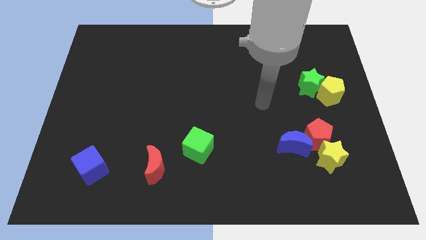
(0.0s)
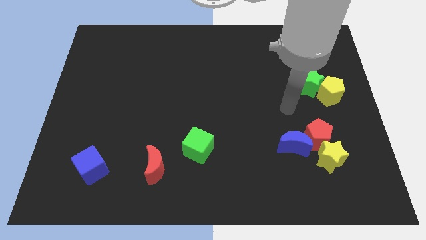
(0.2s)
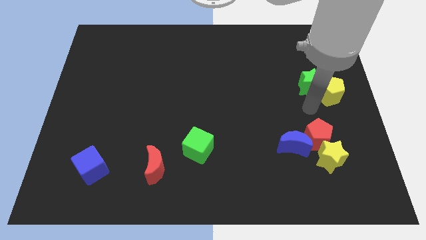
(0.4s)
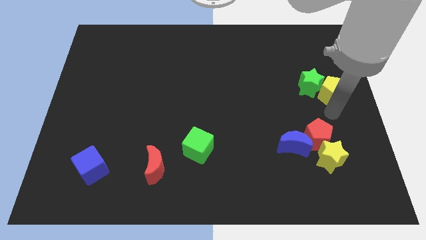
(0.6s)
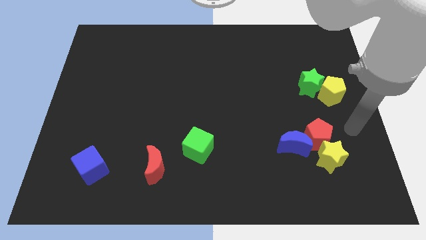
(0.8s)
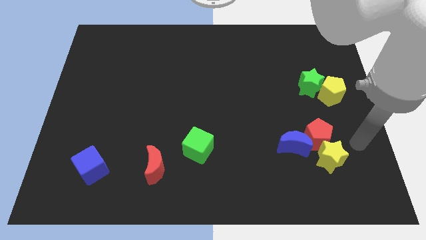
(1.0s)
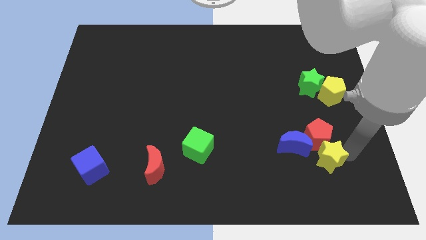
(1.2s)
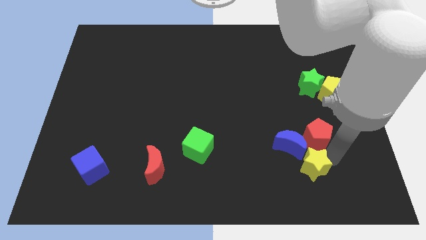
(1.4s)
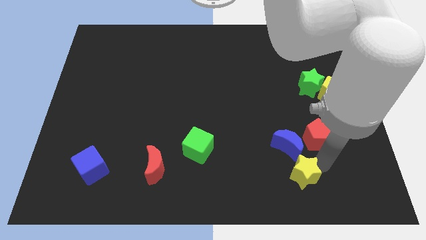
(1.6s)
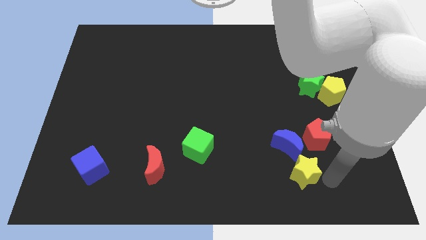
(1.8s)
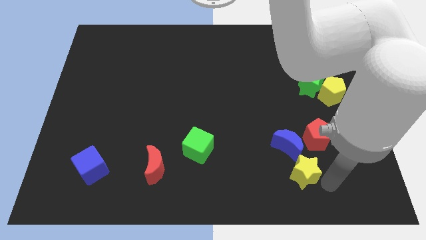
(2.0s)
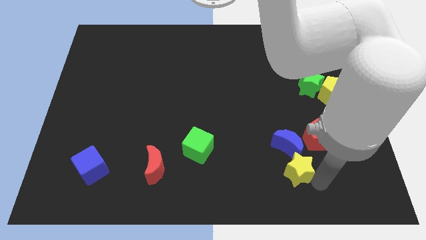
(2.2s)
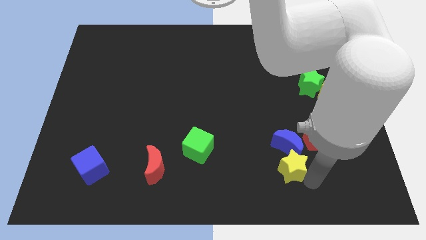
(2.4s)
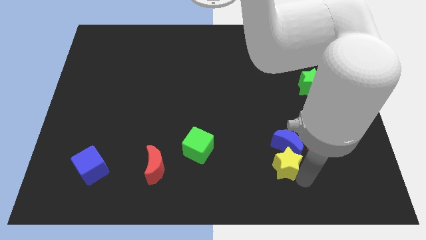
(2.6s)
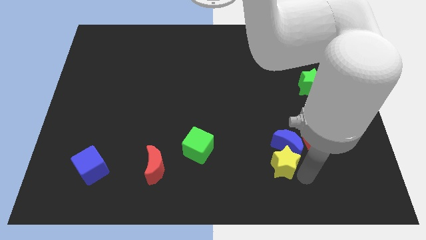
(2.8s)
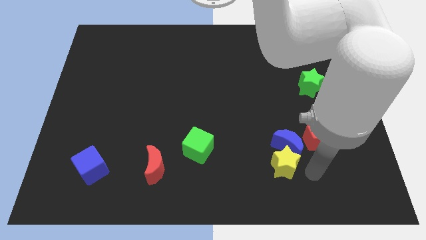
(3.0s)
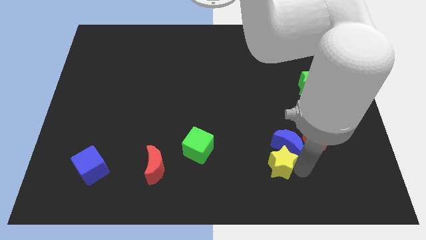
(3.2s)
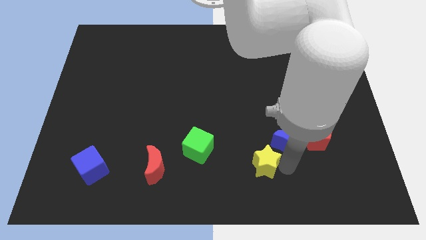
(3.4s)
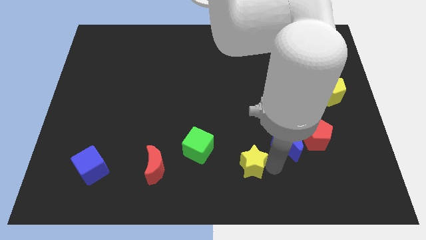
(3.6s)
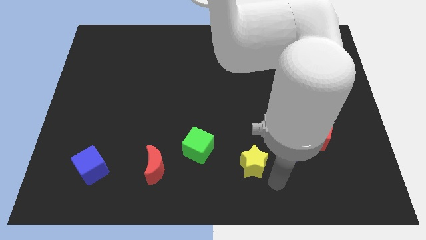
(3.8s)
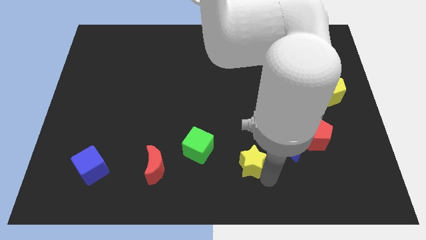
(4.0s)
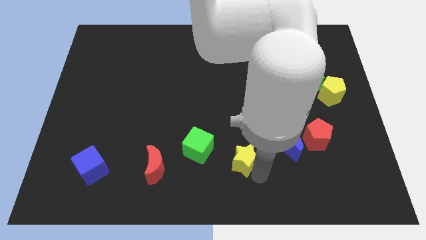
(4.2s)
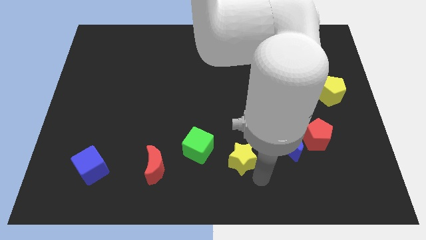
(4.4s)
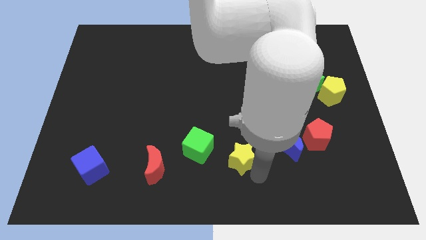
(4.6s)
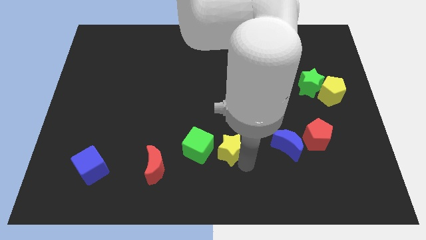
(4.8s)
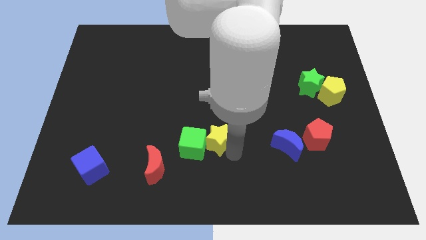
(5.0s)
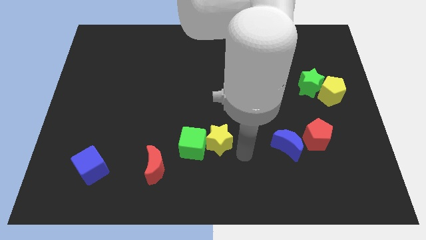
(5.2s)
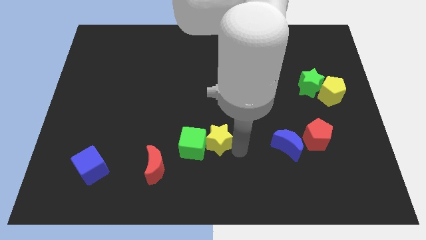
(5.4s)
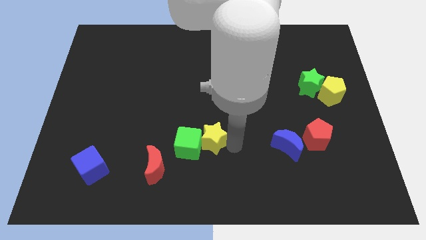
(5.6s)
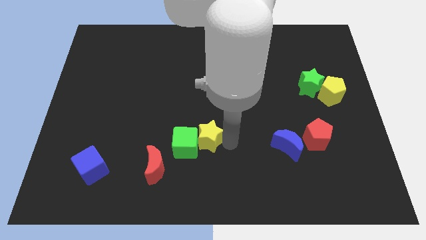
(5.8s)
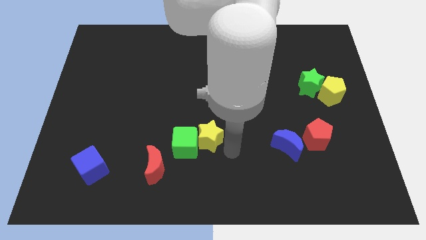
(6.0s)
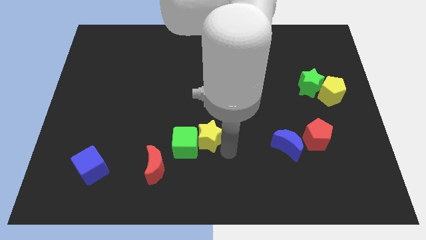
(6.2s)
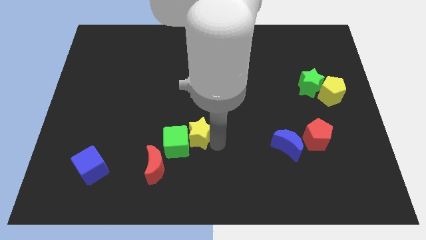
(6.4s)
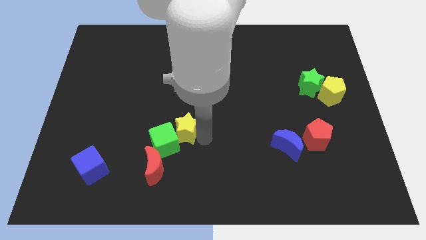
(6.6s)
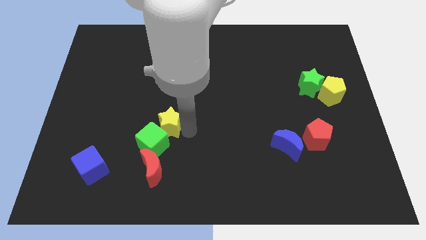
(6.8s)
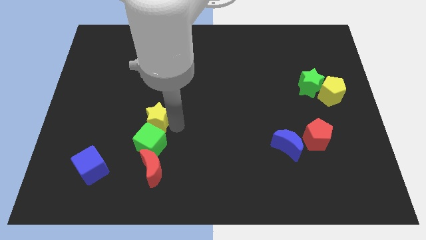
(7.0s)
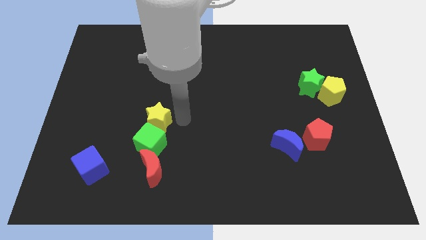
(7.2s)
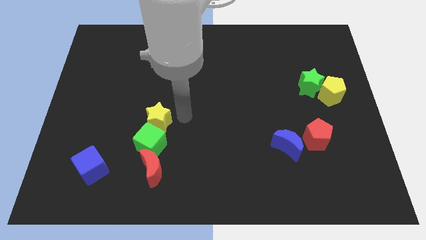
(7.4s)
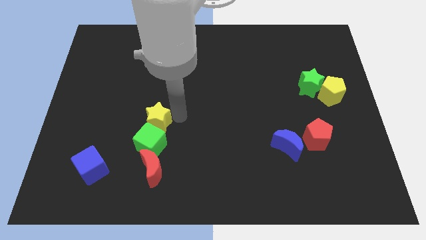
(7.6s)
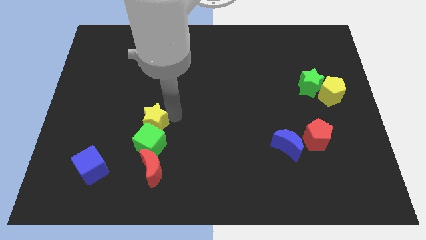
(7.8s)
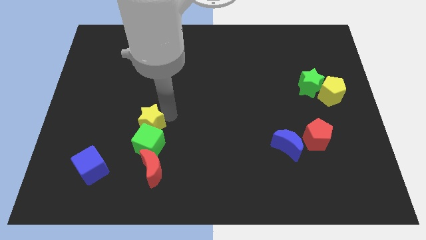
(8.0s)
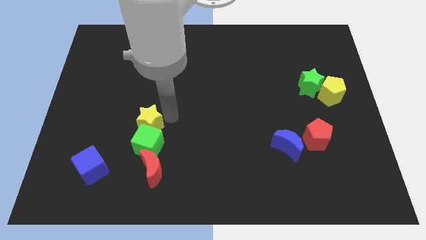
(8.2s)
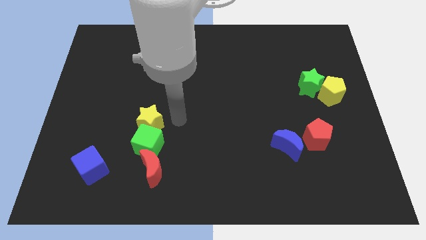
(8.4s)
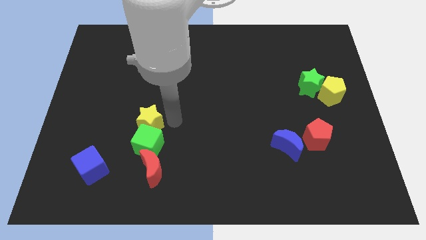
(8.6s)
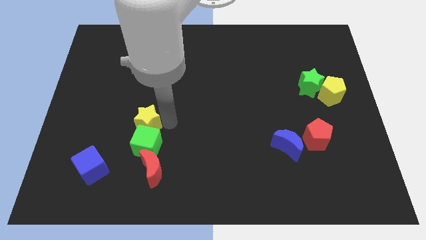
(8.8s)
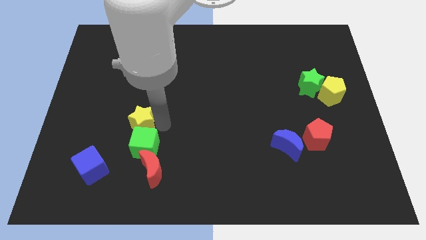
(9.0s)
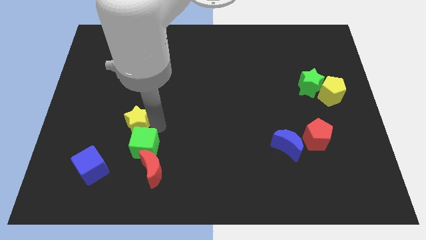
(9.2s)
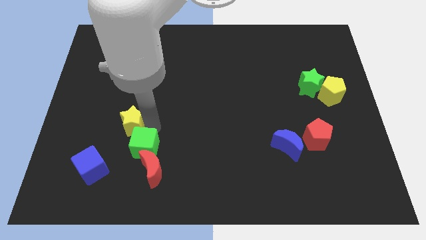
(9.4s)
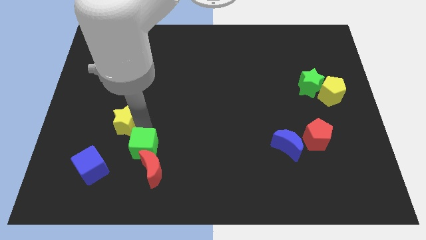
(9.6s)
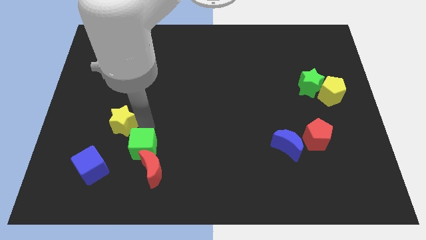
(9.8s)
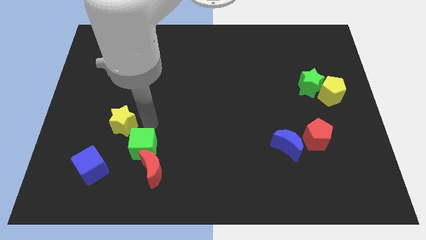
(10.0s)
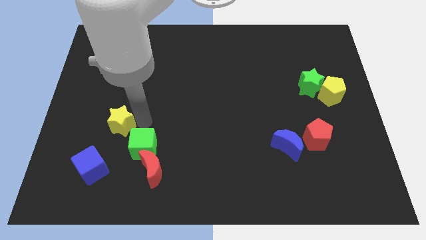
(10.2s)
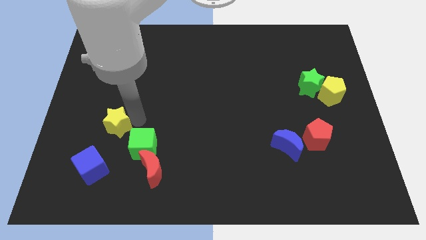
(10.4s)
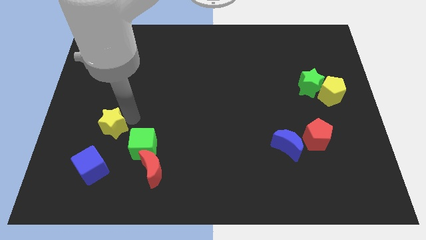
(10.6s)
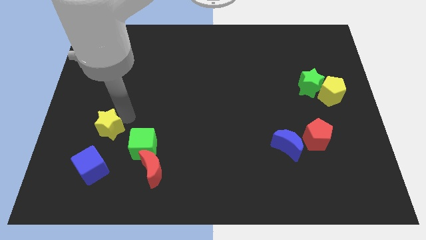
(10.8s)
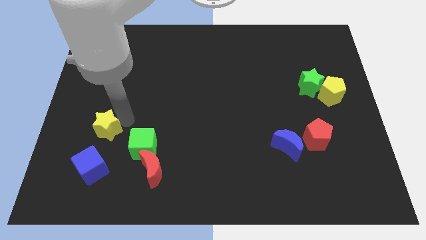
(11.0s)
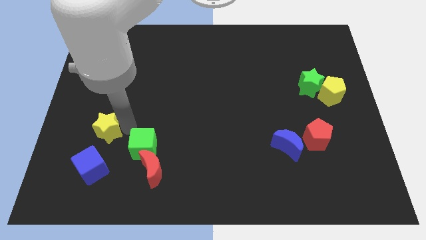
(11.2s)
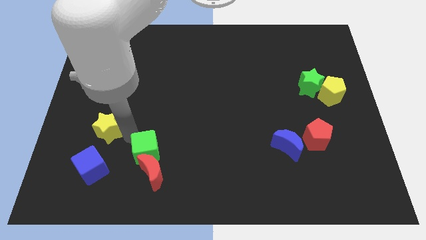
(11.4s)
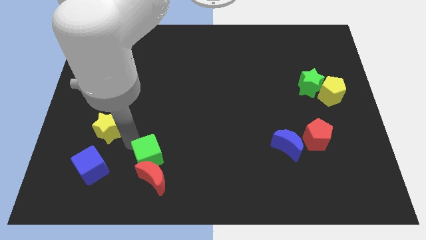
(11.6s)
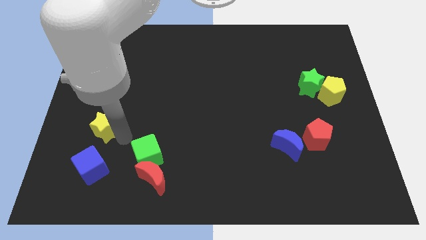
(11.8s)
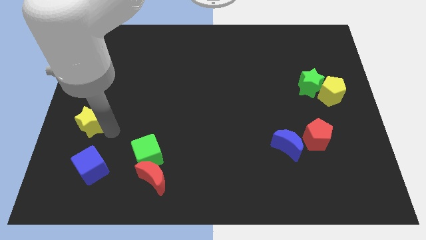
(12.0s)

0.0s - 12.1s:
put the yellow star to the left side
